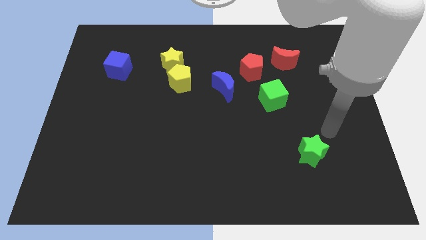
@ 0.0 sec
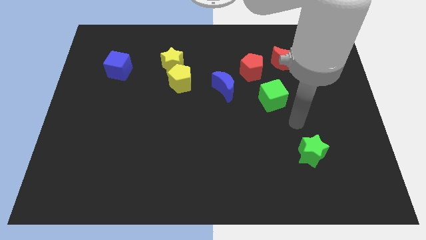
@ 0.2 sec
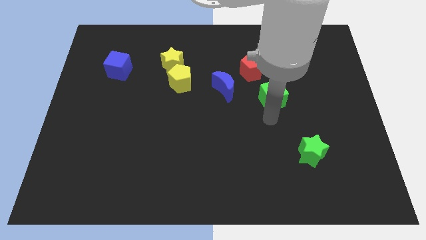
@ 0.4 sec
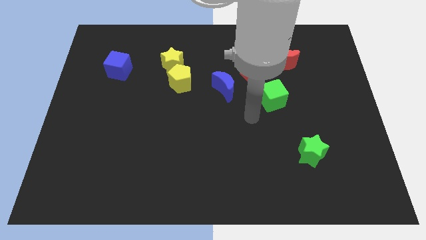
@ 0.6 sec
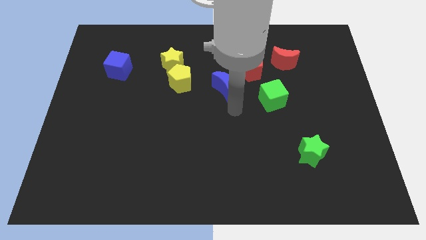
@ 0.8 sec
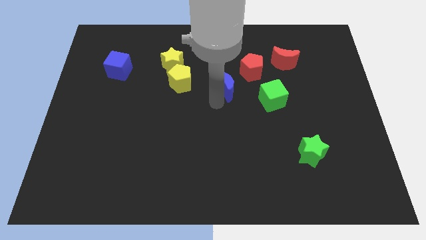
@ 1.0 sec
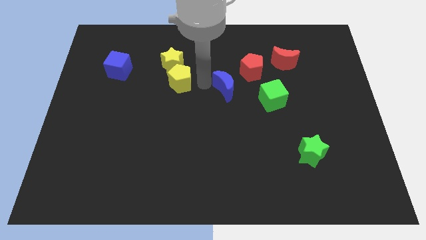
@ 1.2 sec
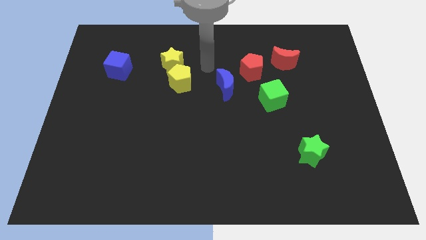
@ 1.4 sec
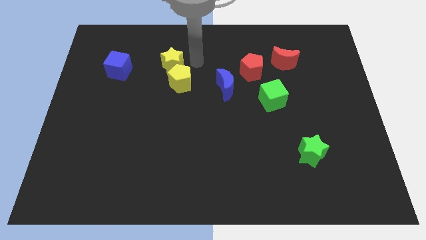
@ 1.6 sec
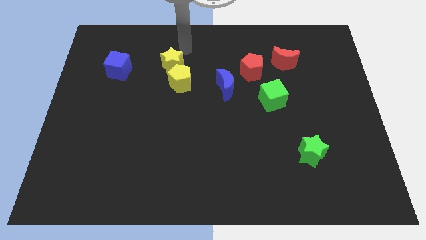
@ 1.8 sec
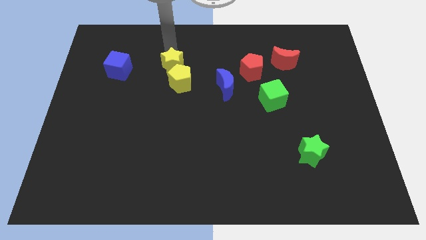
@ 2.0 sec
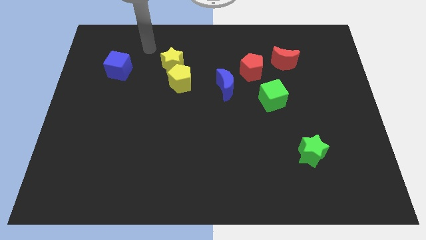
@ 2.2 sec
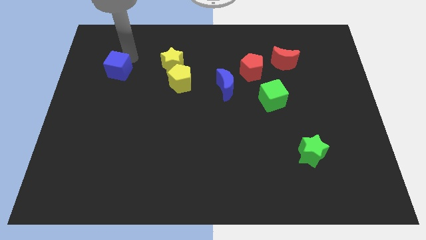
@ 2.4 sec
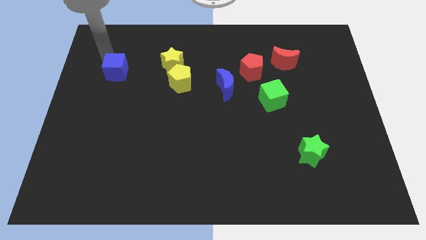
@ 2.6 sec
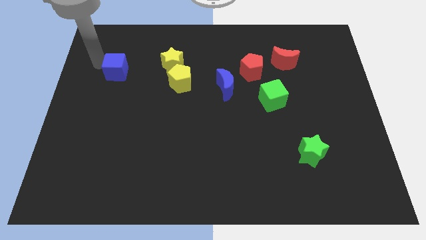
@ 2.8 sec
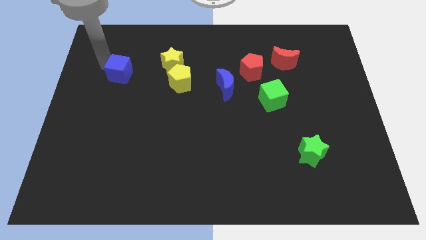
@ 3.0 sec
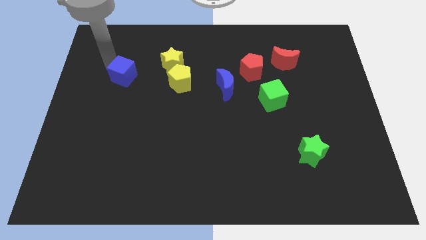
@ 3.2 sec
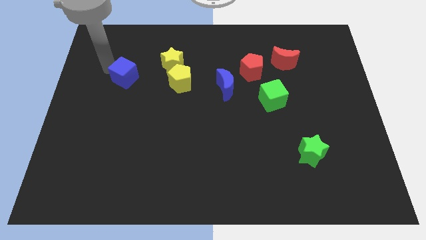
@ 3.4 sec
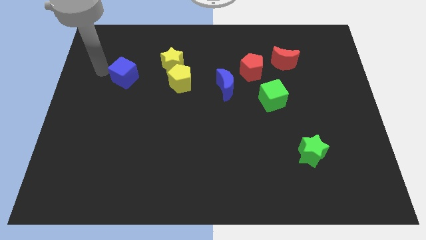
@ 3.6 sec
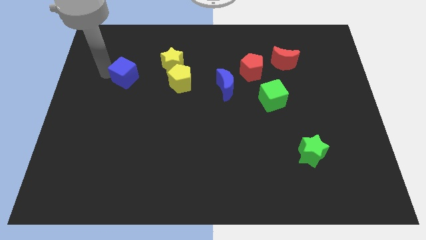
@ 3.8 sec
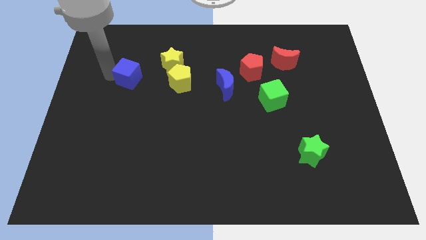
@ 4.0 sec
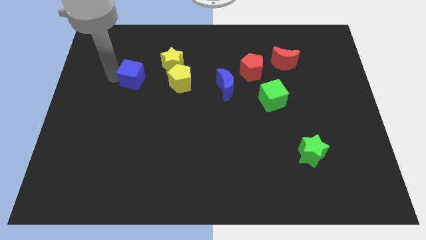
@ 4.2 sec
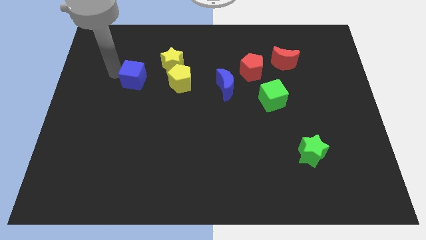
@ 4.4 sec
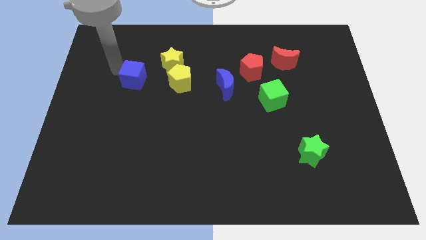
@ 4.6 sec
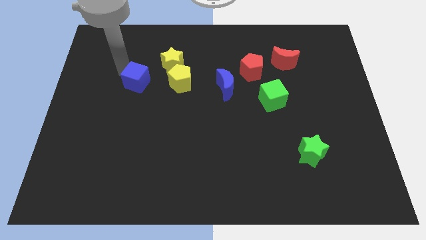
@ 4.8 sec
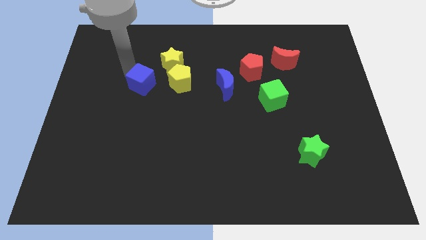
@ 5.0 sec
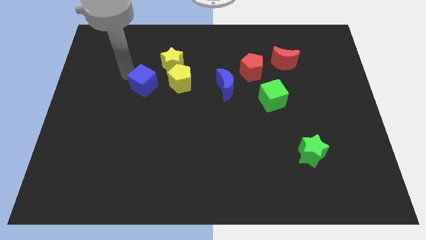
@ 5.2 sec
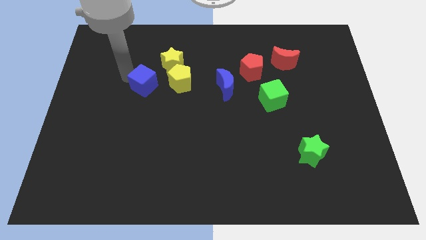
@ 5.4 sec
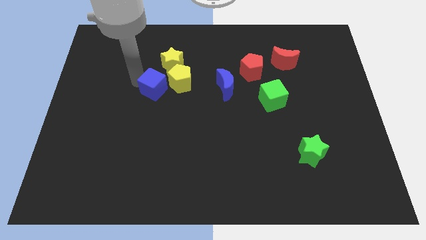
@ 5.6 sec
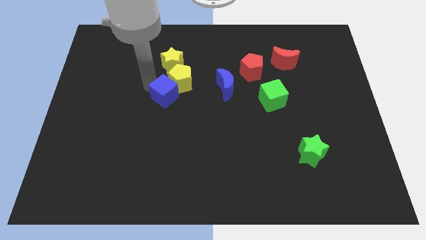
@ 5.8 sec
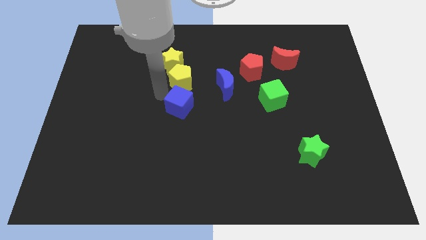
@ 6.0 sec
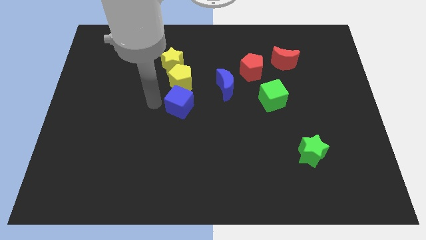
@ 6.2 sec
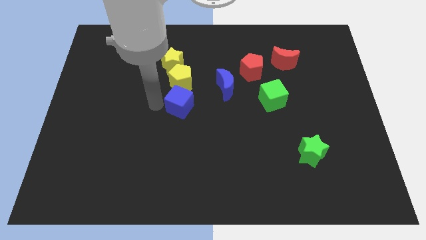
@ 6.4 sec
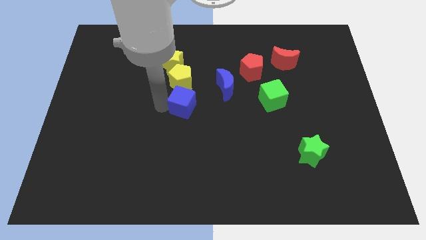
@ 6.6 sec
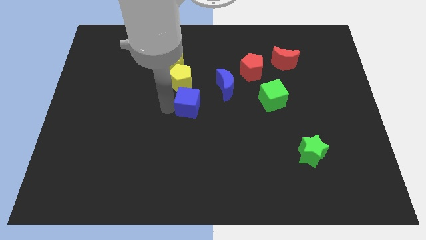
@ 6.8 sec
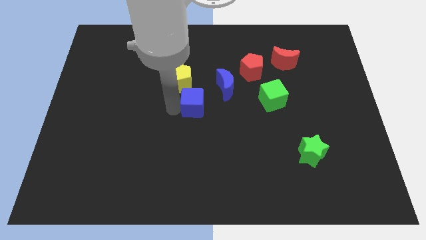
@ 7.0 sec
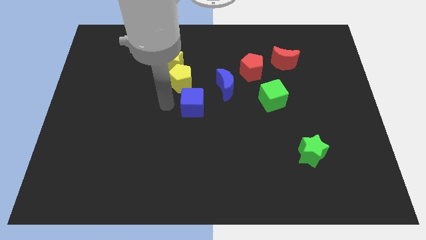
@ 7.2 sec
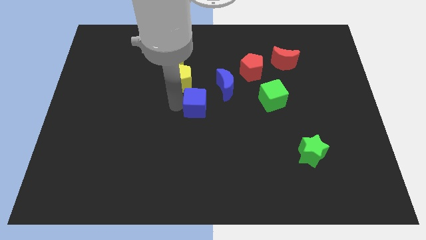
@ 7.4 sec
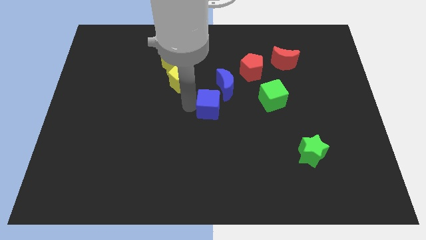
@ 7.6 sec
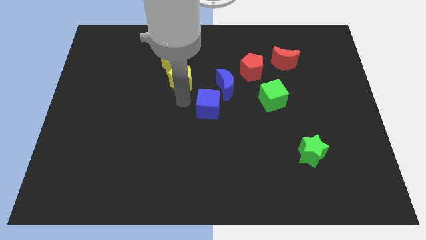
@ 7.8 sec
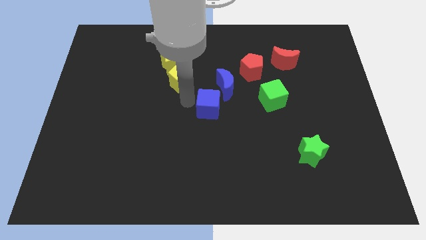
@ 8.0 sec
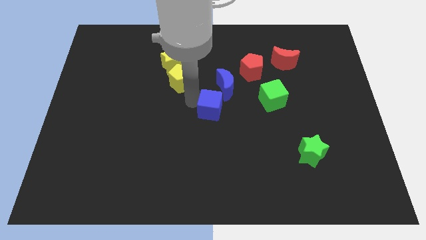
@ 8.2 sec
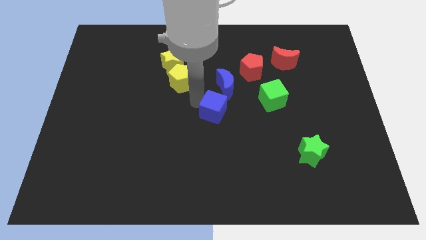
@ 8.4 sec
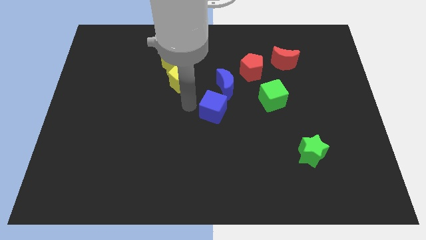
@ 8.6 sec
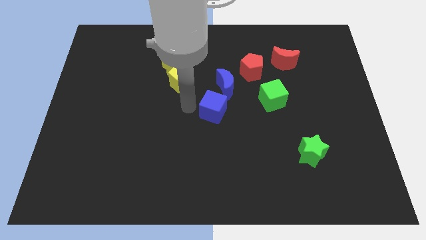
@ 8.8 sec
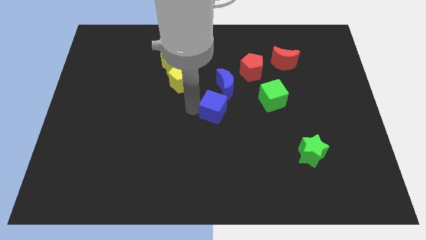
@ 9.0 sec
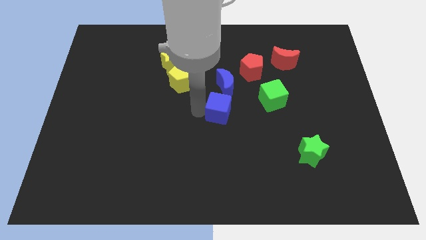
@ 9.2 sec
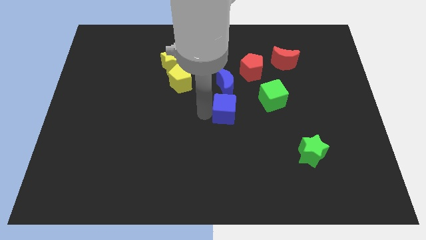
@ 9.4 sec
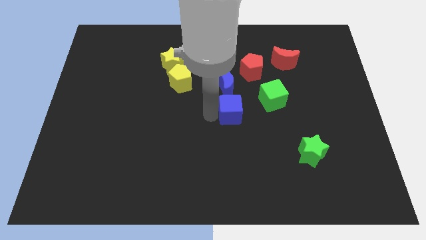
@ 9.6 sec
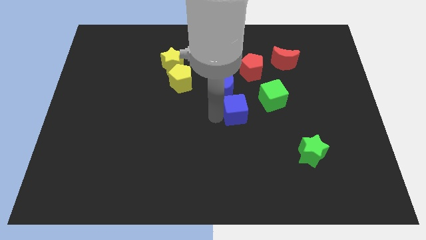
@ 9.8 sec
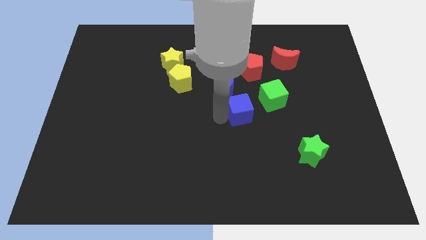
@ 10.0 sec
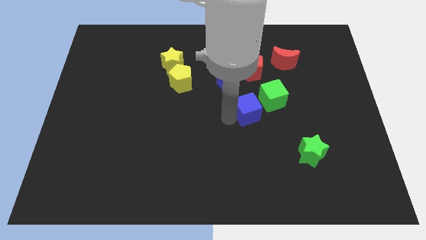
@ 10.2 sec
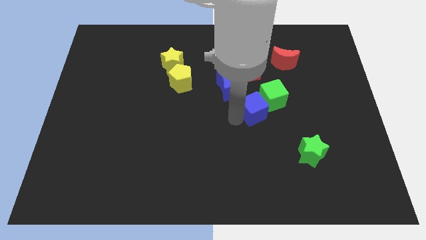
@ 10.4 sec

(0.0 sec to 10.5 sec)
put the blue cube to the green cube

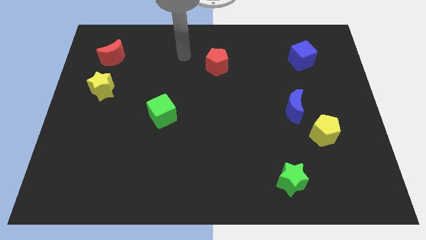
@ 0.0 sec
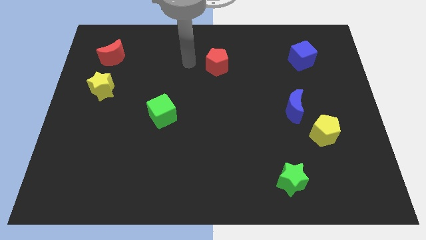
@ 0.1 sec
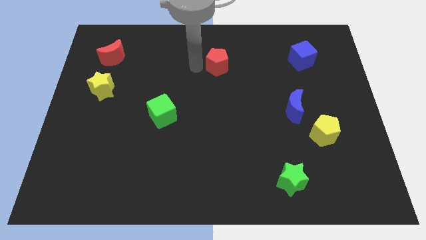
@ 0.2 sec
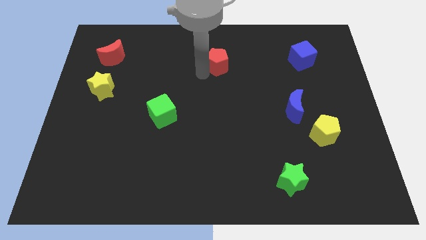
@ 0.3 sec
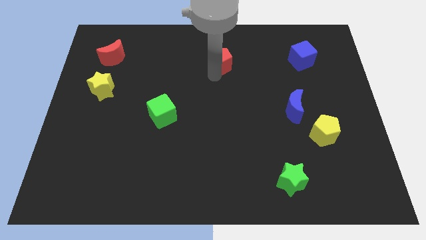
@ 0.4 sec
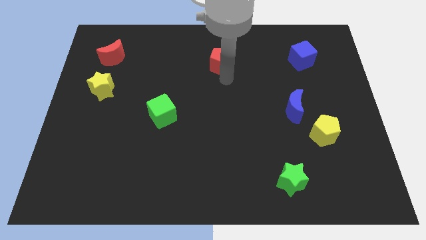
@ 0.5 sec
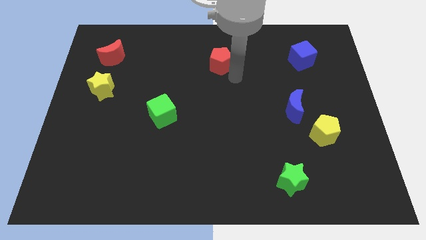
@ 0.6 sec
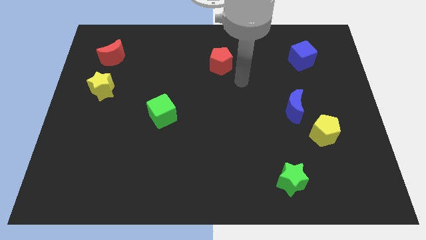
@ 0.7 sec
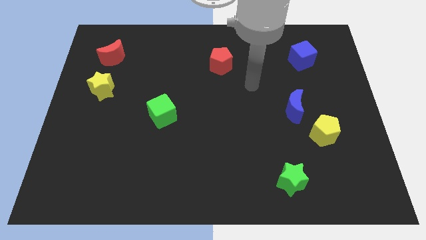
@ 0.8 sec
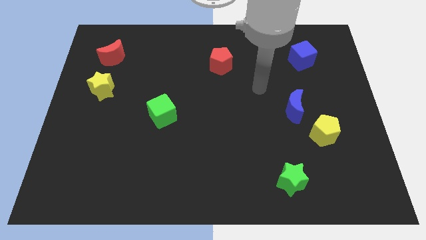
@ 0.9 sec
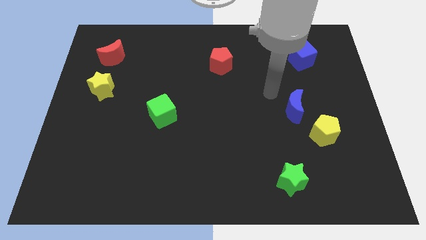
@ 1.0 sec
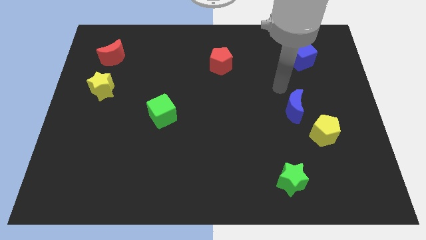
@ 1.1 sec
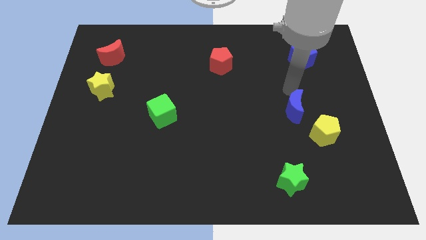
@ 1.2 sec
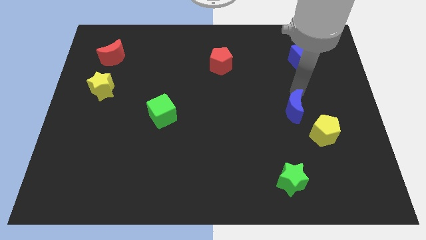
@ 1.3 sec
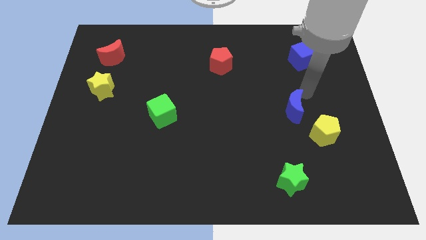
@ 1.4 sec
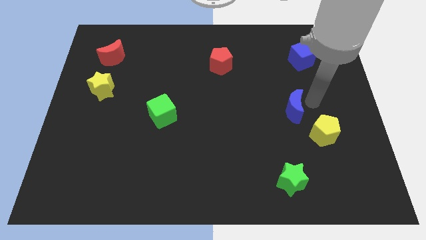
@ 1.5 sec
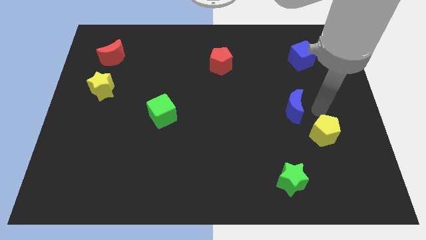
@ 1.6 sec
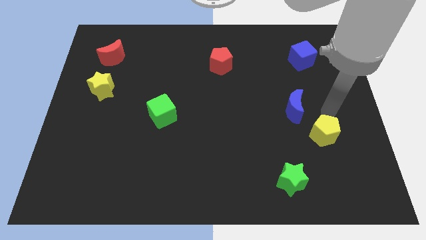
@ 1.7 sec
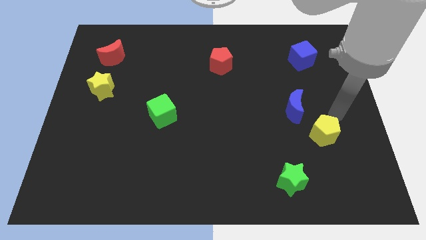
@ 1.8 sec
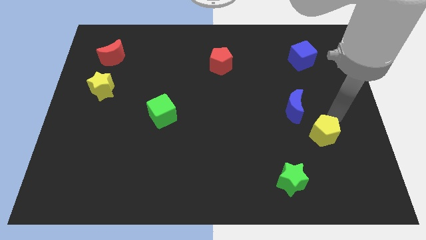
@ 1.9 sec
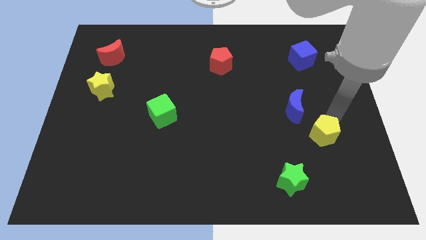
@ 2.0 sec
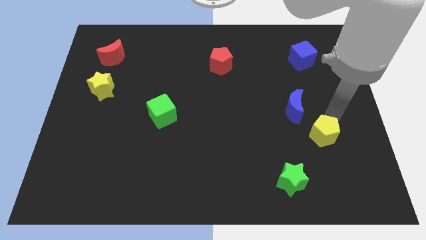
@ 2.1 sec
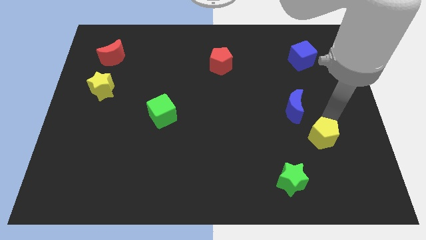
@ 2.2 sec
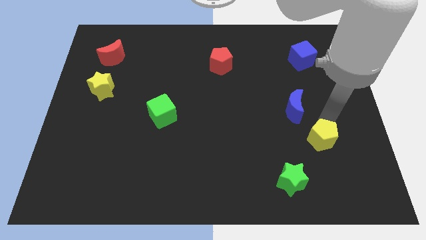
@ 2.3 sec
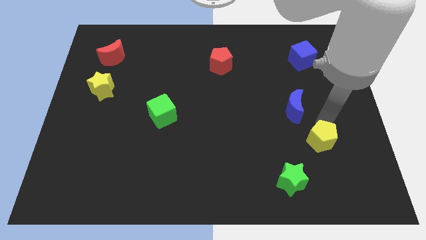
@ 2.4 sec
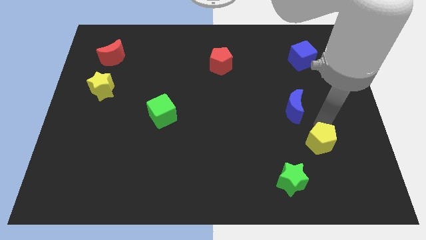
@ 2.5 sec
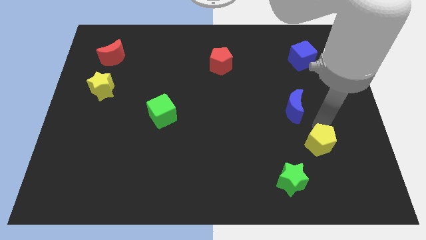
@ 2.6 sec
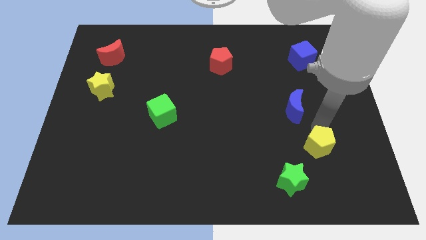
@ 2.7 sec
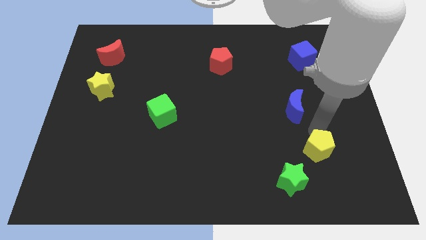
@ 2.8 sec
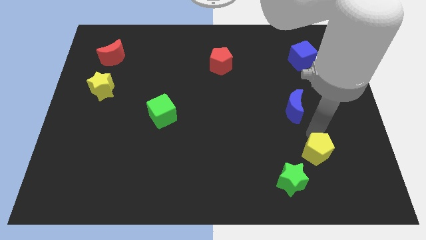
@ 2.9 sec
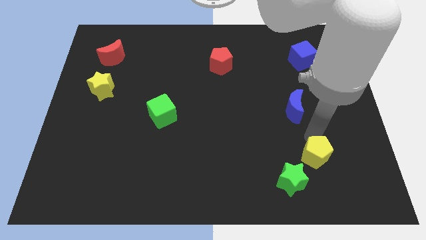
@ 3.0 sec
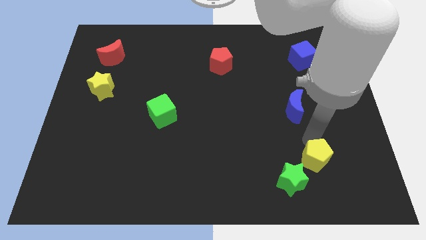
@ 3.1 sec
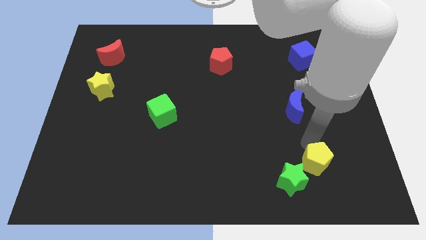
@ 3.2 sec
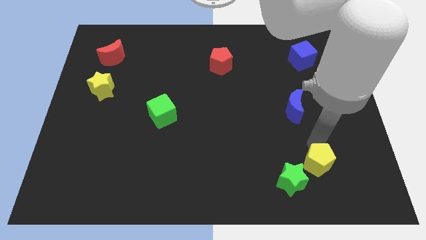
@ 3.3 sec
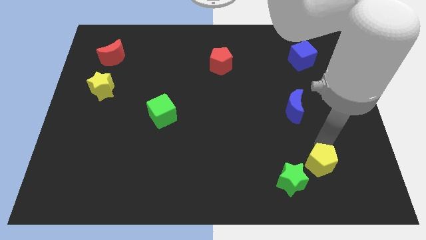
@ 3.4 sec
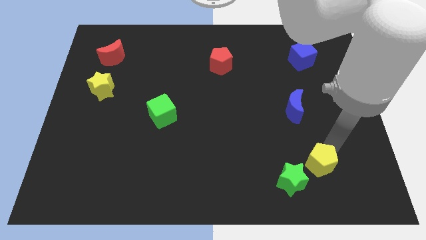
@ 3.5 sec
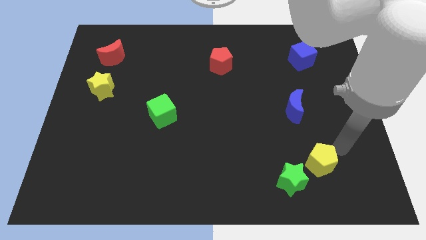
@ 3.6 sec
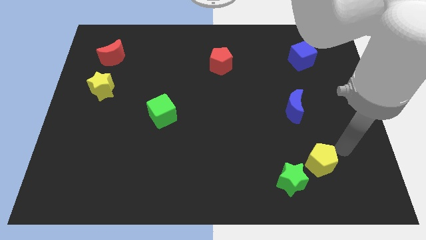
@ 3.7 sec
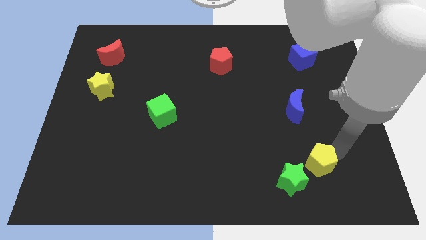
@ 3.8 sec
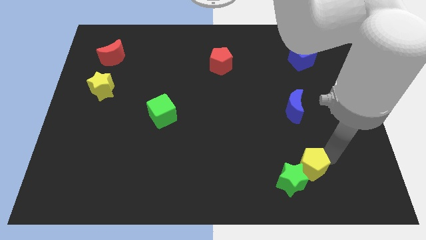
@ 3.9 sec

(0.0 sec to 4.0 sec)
put the yellow pentagon towards the green star
